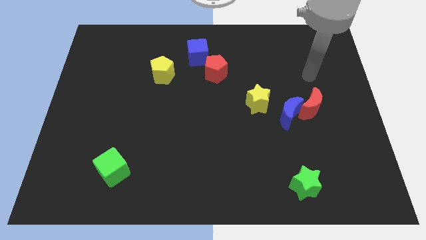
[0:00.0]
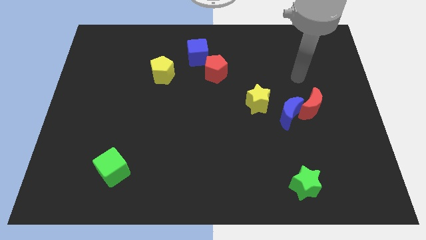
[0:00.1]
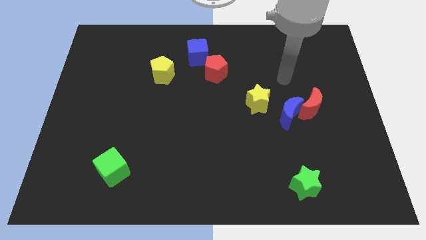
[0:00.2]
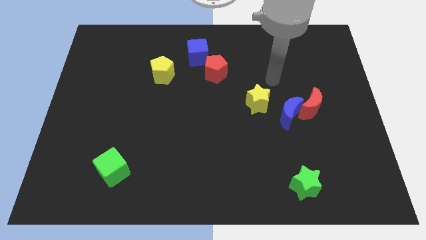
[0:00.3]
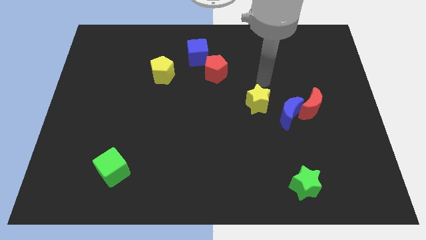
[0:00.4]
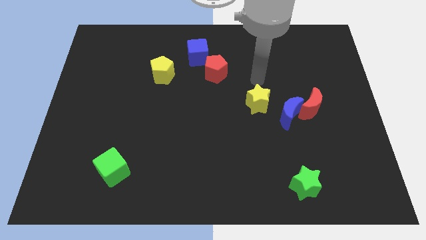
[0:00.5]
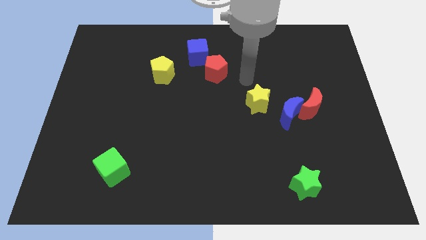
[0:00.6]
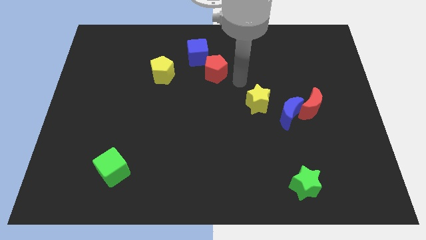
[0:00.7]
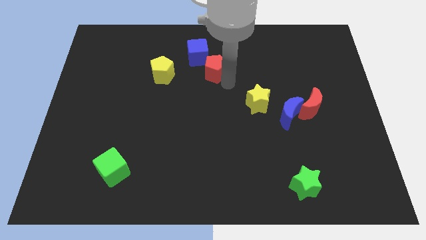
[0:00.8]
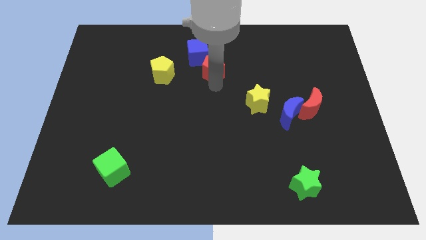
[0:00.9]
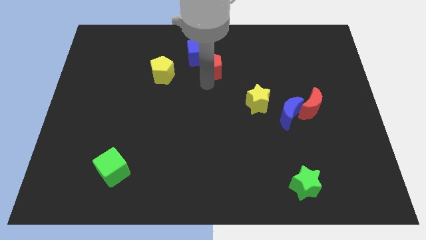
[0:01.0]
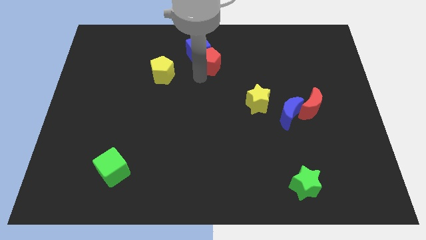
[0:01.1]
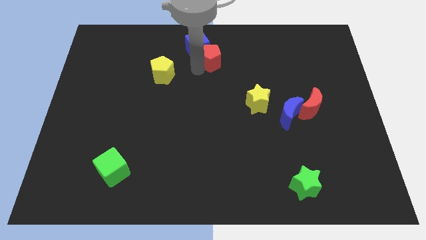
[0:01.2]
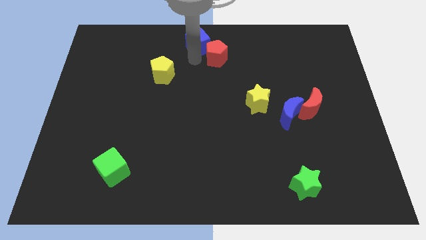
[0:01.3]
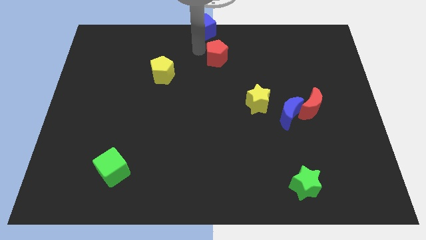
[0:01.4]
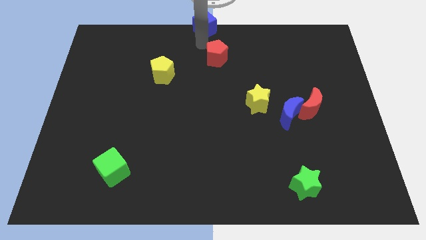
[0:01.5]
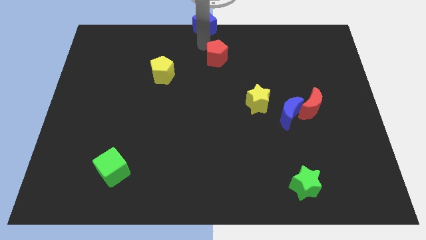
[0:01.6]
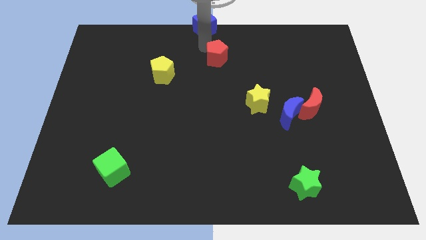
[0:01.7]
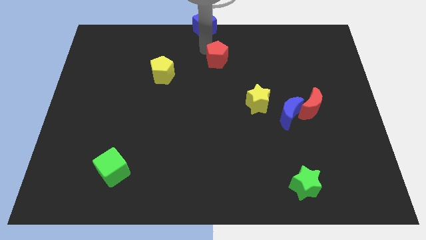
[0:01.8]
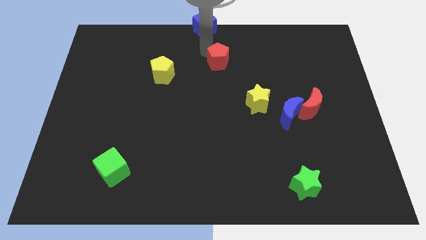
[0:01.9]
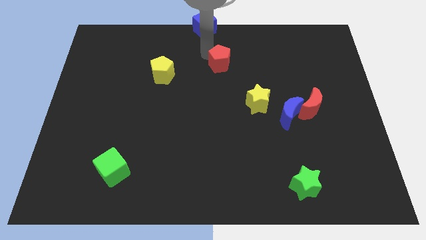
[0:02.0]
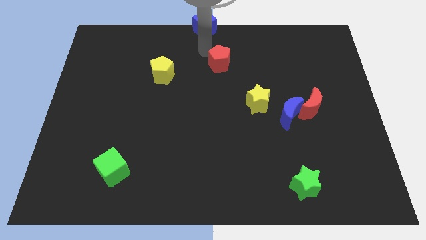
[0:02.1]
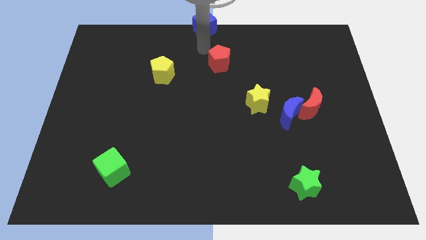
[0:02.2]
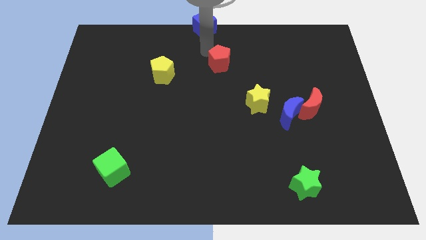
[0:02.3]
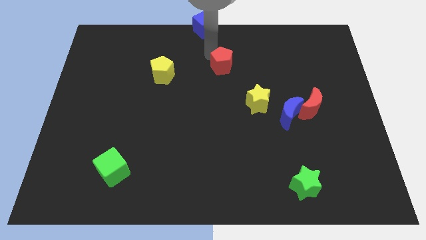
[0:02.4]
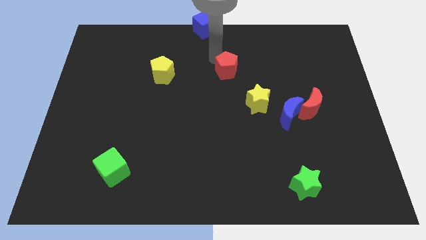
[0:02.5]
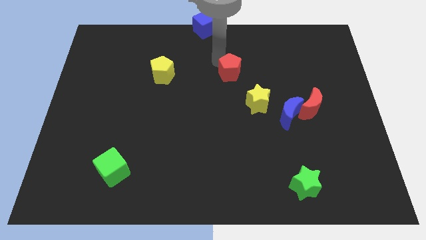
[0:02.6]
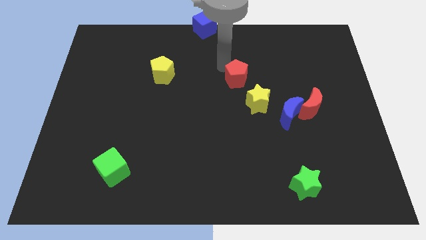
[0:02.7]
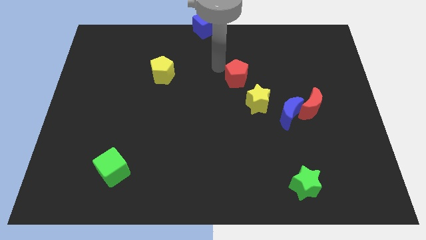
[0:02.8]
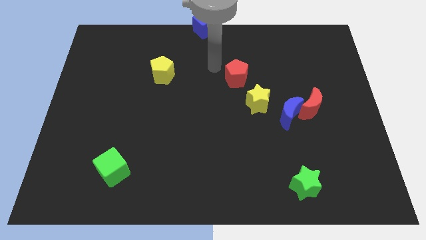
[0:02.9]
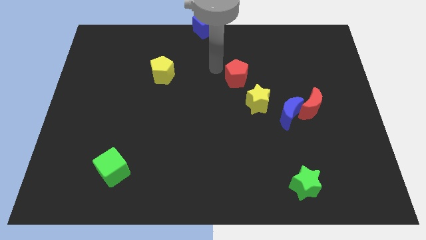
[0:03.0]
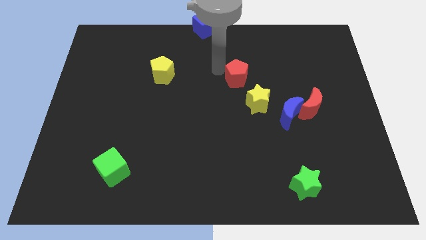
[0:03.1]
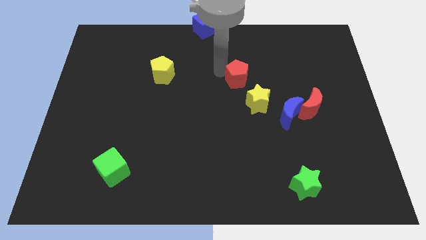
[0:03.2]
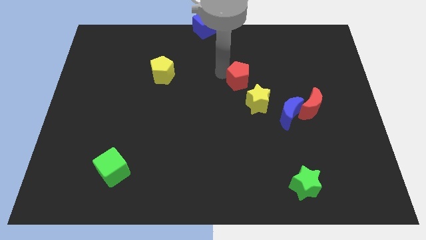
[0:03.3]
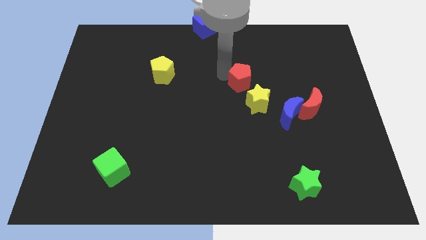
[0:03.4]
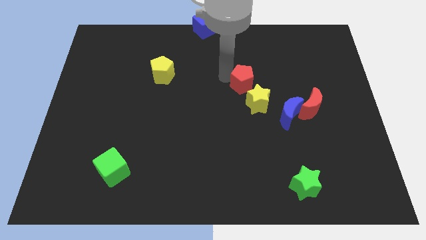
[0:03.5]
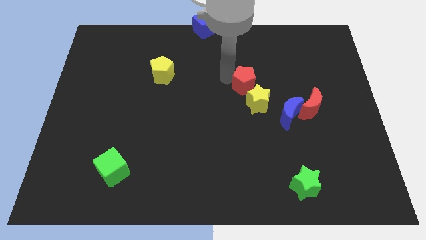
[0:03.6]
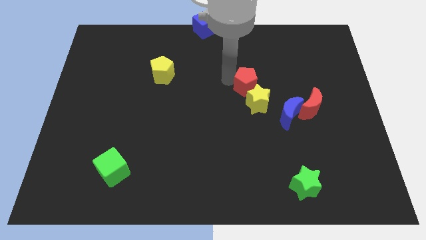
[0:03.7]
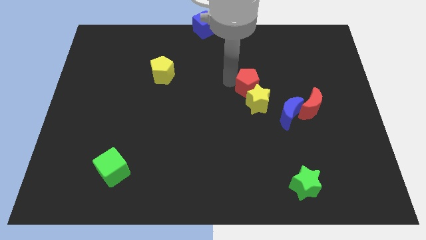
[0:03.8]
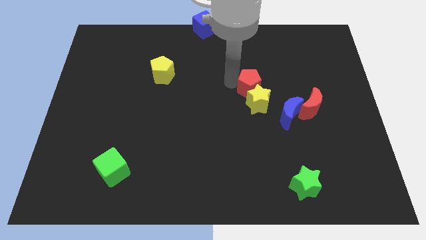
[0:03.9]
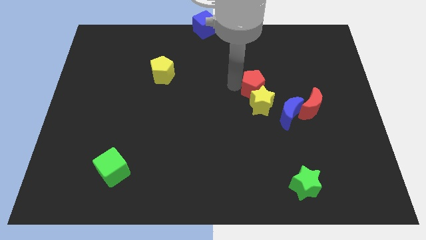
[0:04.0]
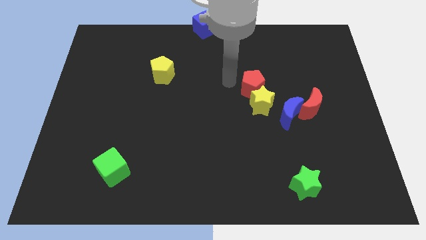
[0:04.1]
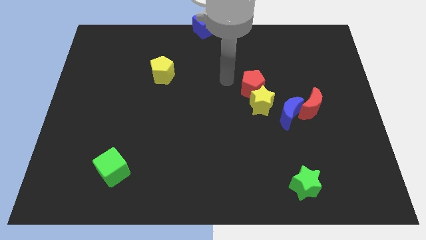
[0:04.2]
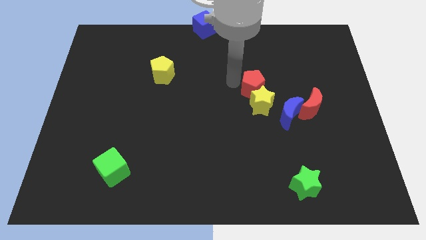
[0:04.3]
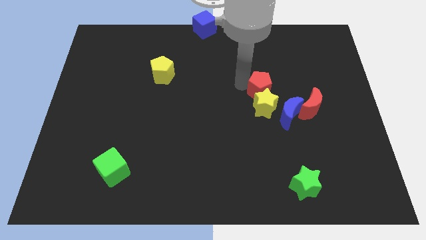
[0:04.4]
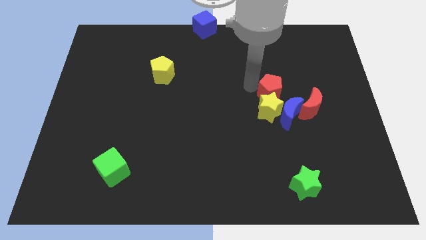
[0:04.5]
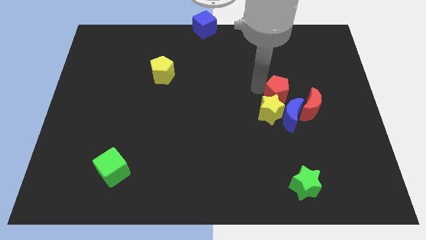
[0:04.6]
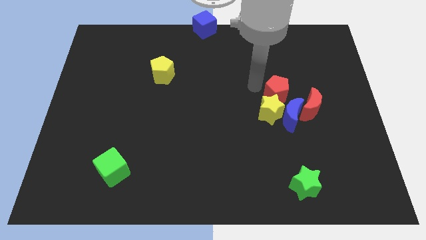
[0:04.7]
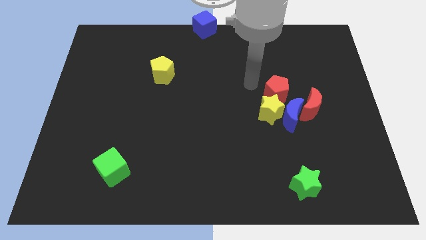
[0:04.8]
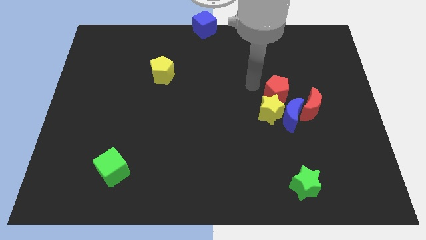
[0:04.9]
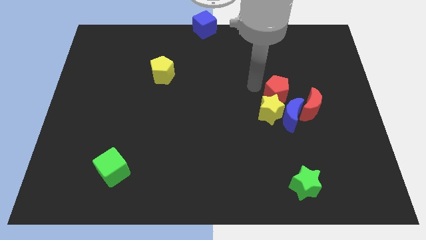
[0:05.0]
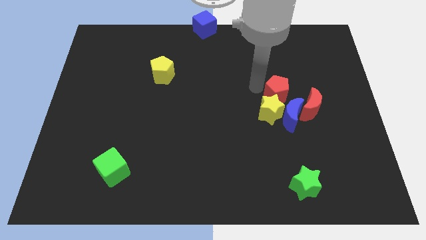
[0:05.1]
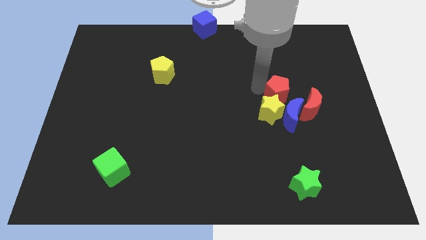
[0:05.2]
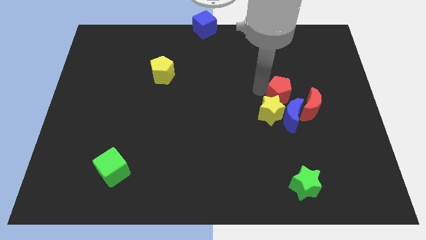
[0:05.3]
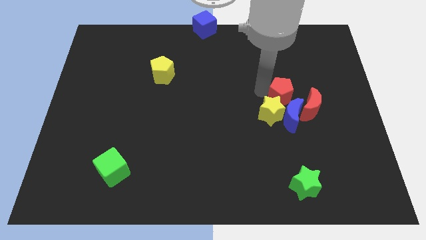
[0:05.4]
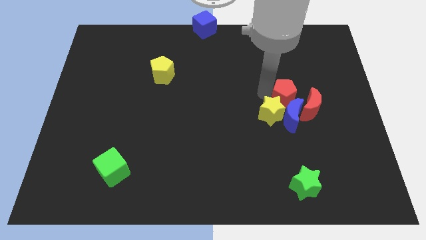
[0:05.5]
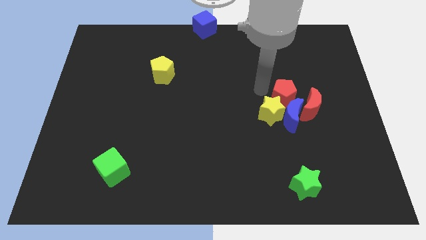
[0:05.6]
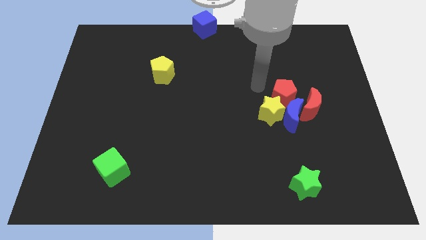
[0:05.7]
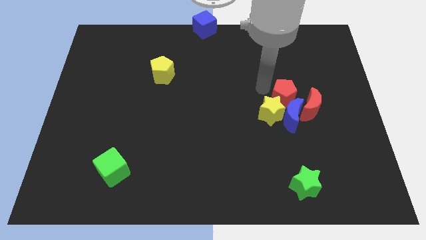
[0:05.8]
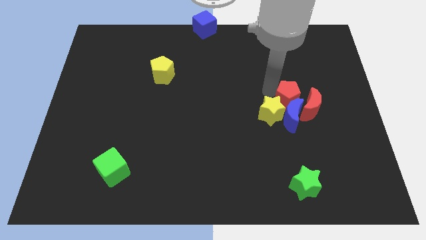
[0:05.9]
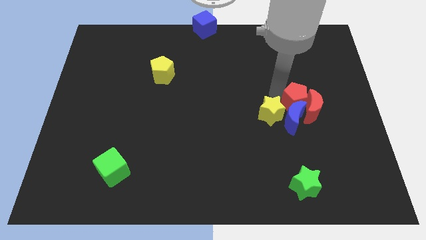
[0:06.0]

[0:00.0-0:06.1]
push the red pentagon towards the red moon

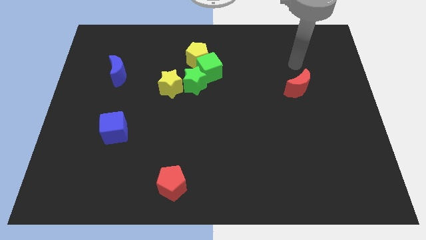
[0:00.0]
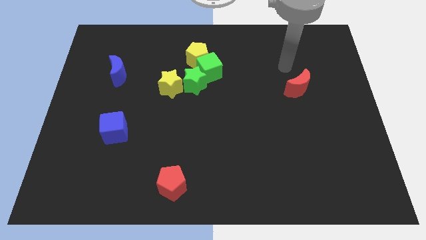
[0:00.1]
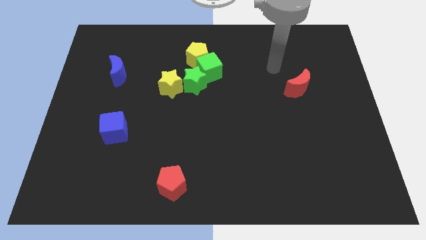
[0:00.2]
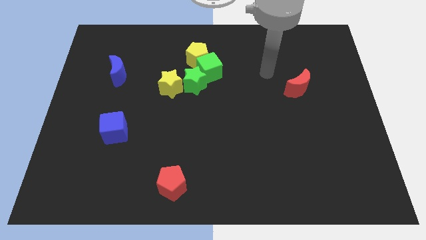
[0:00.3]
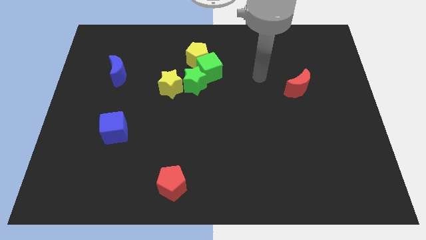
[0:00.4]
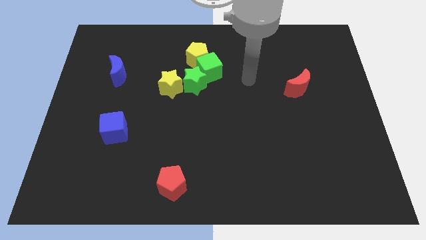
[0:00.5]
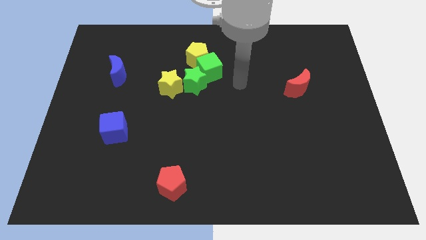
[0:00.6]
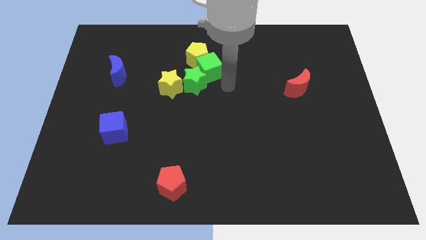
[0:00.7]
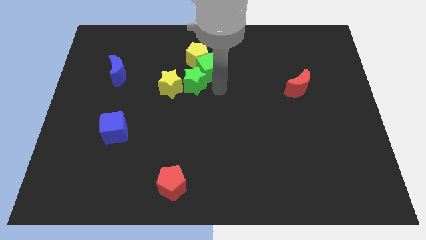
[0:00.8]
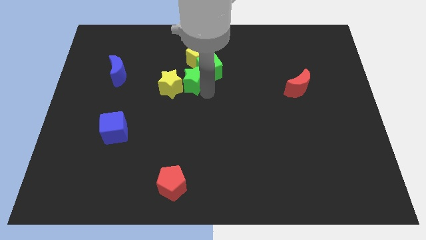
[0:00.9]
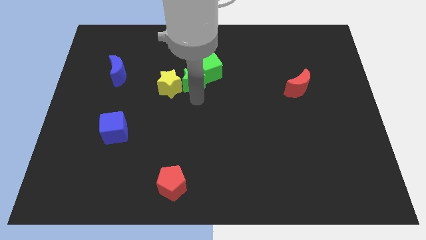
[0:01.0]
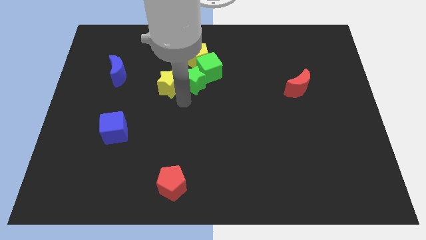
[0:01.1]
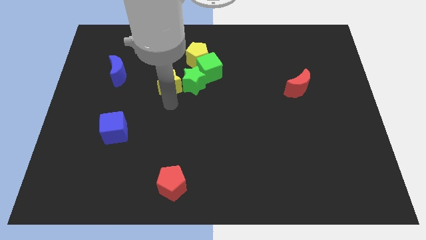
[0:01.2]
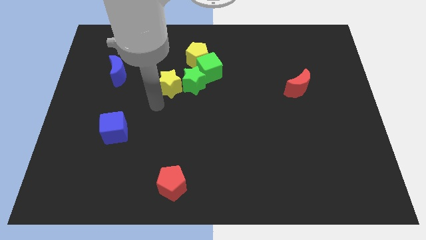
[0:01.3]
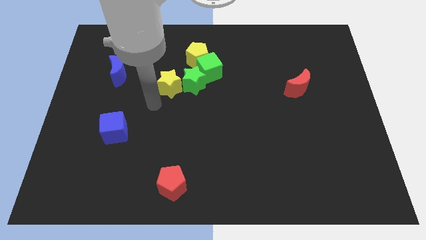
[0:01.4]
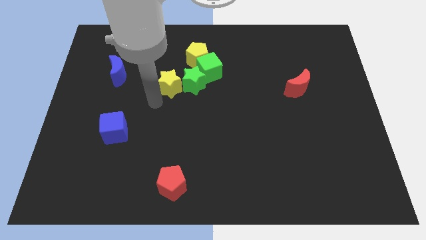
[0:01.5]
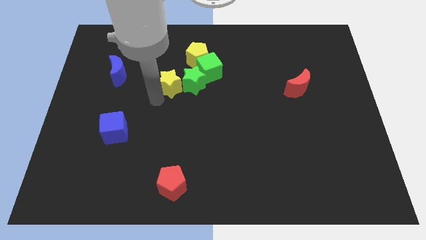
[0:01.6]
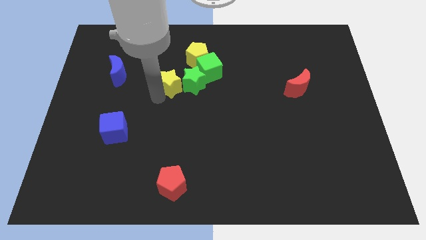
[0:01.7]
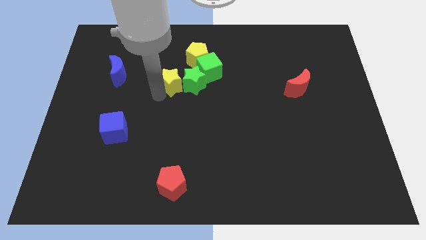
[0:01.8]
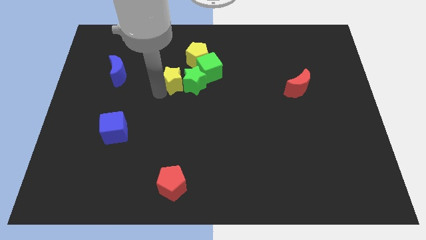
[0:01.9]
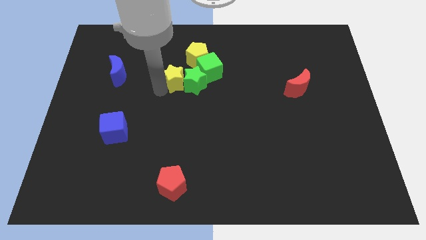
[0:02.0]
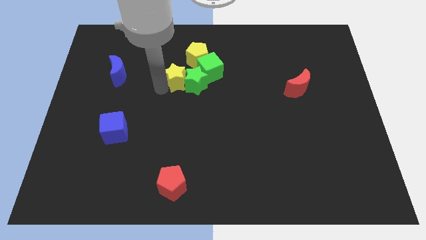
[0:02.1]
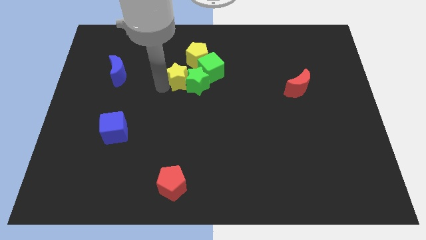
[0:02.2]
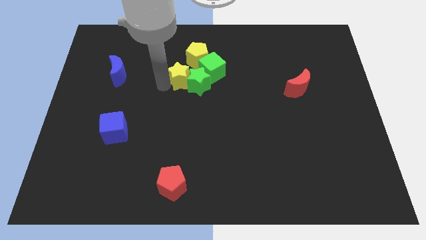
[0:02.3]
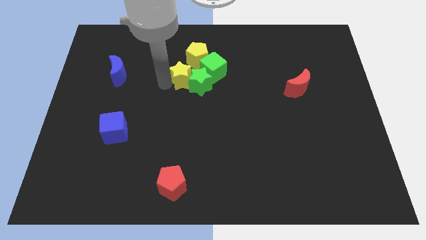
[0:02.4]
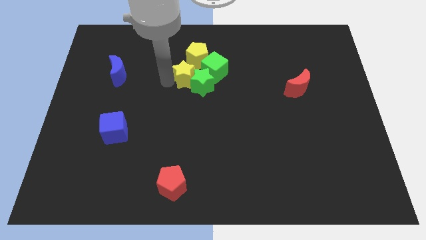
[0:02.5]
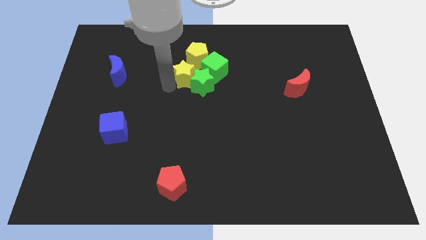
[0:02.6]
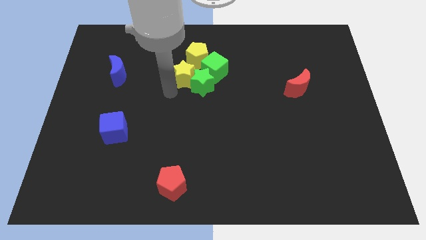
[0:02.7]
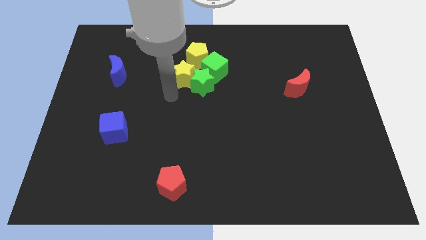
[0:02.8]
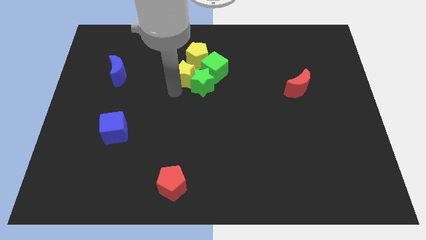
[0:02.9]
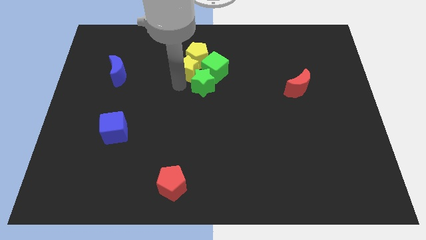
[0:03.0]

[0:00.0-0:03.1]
move the yellow star close to the yellow pentagon
